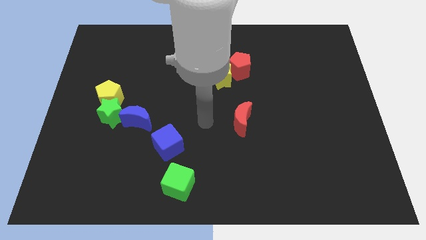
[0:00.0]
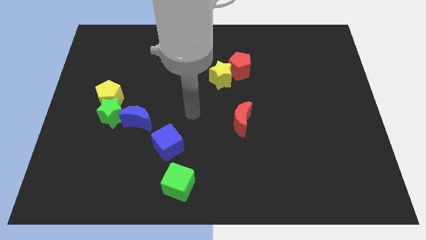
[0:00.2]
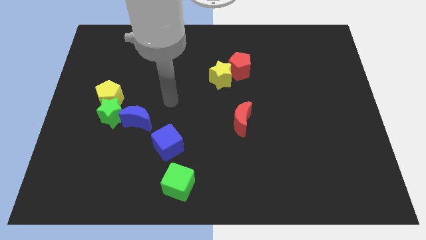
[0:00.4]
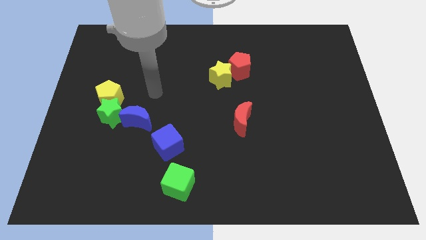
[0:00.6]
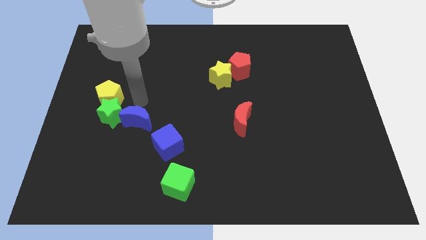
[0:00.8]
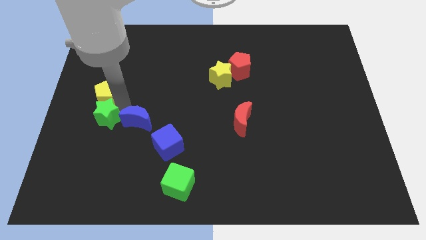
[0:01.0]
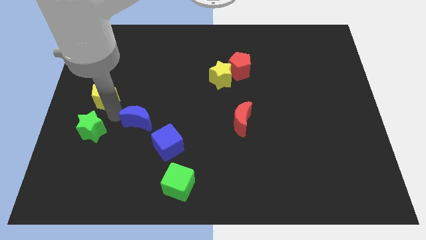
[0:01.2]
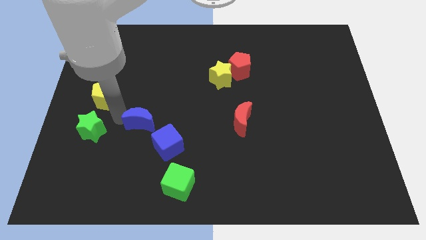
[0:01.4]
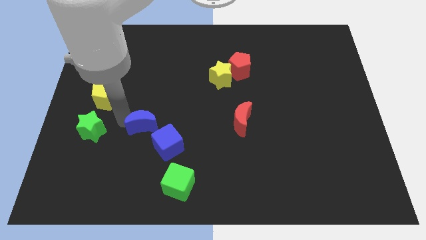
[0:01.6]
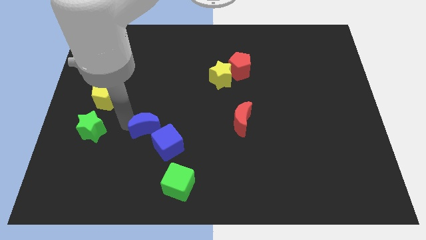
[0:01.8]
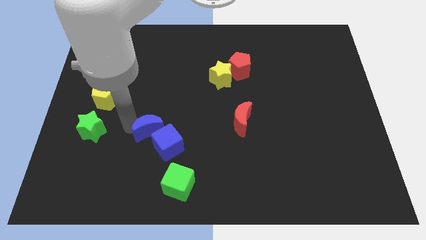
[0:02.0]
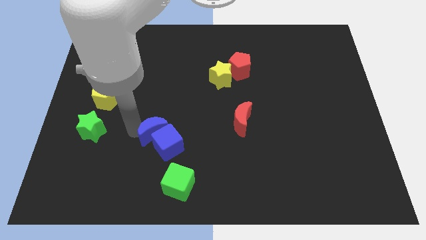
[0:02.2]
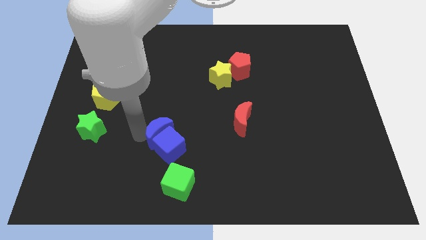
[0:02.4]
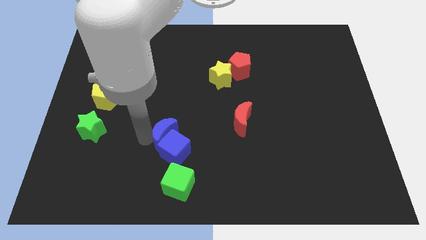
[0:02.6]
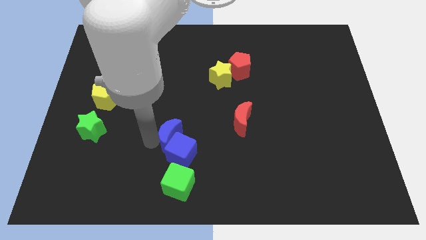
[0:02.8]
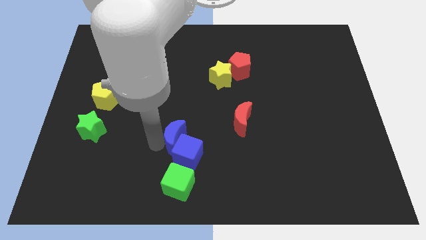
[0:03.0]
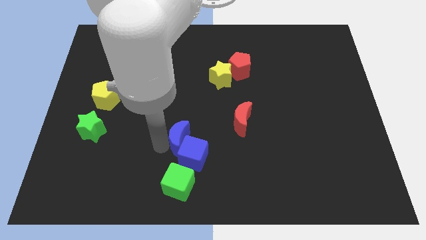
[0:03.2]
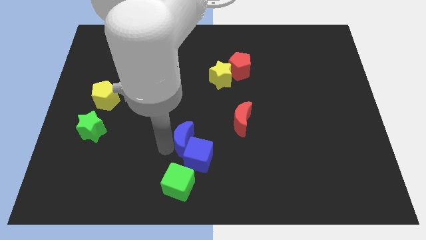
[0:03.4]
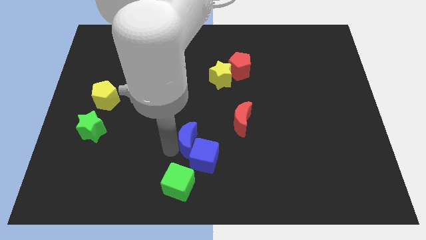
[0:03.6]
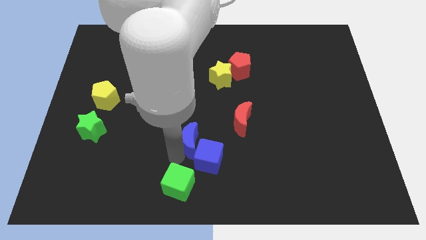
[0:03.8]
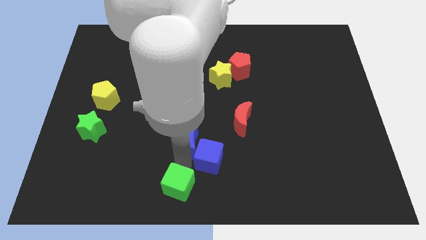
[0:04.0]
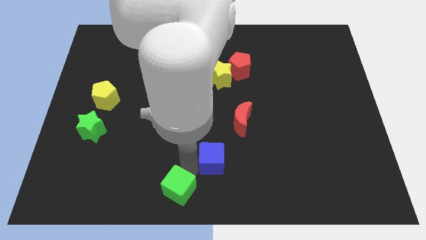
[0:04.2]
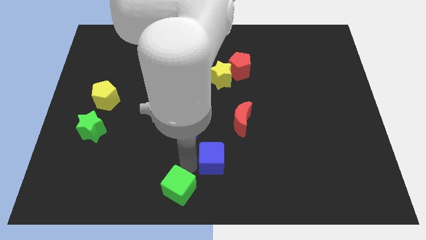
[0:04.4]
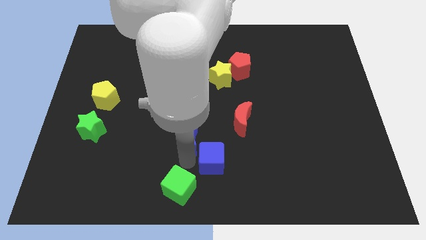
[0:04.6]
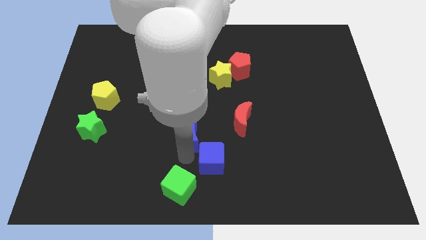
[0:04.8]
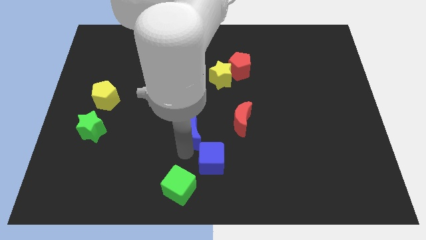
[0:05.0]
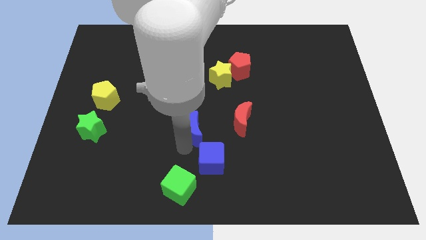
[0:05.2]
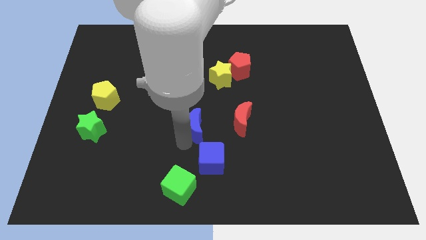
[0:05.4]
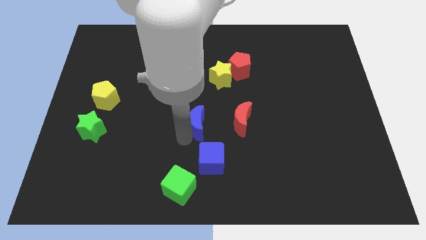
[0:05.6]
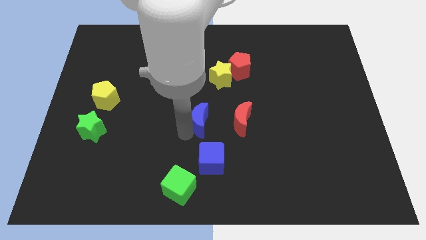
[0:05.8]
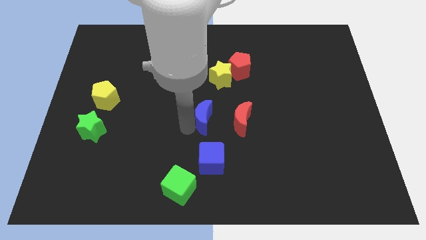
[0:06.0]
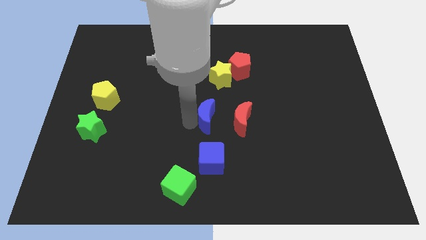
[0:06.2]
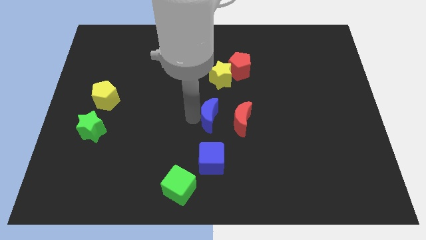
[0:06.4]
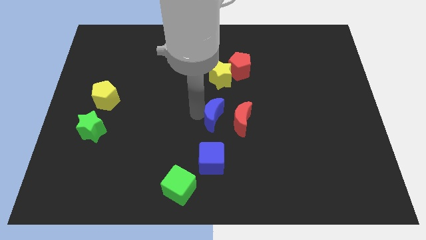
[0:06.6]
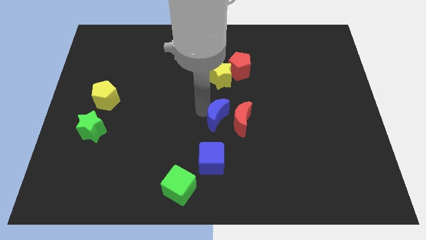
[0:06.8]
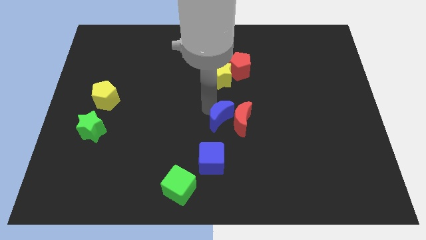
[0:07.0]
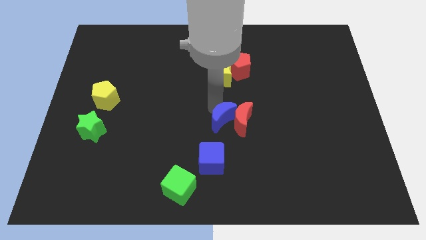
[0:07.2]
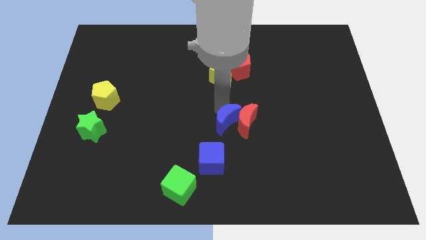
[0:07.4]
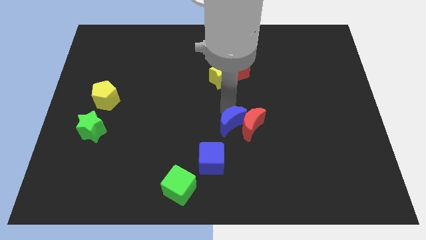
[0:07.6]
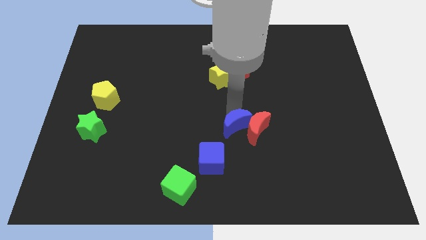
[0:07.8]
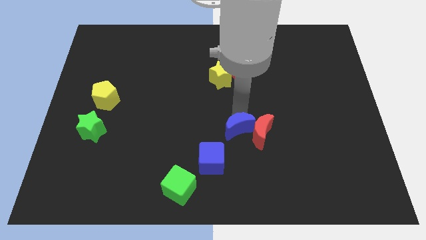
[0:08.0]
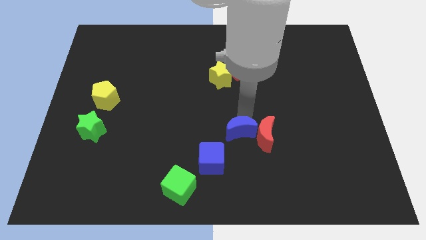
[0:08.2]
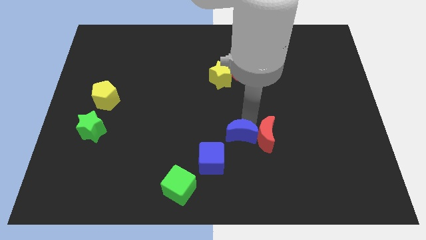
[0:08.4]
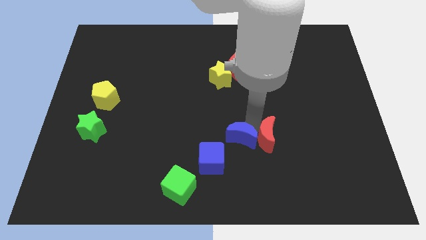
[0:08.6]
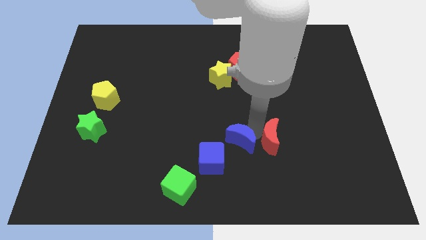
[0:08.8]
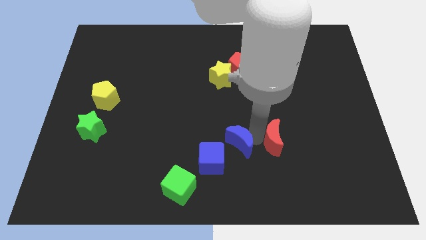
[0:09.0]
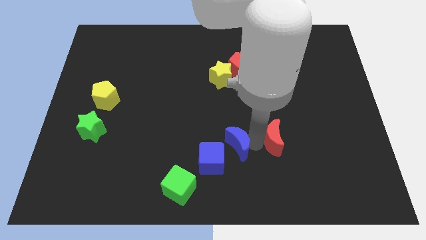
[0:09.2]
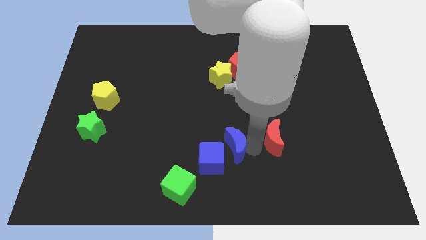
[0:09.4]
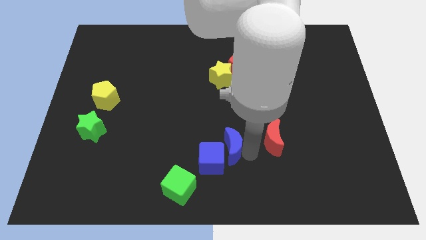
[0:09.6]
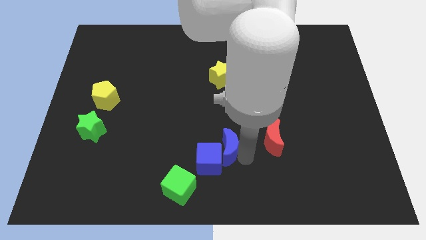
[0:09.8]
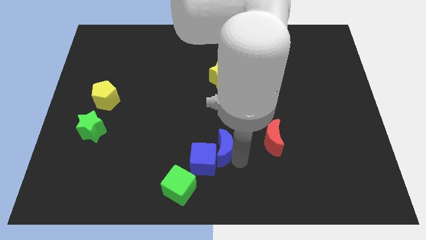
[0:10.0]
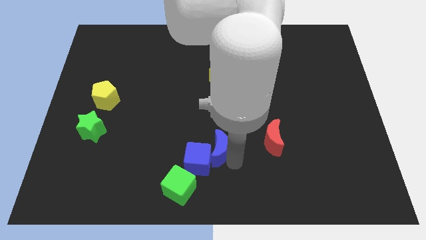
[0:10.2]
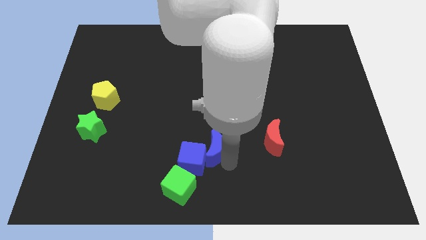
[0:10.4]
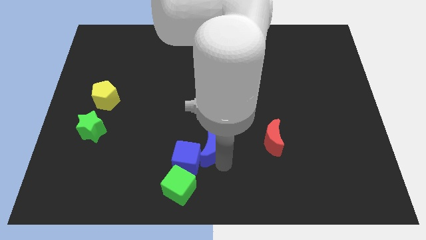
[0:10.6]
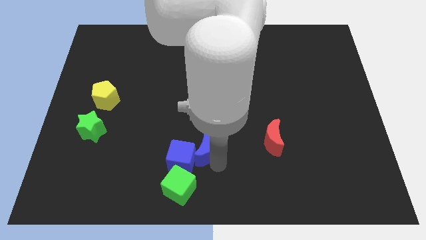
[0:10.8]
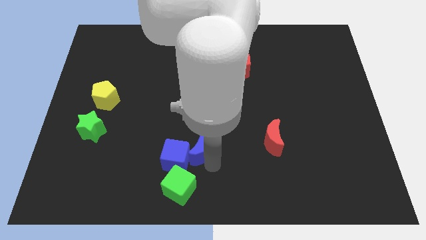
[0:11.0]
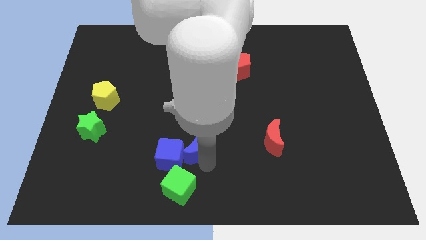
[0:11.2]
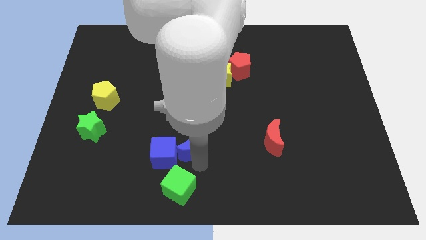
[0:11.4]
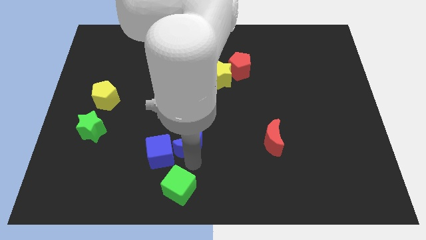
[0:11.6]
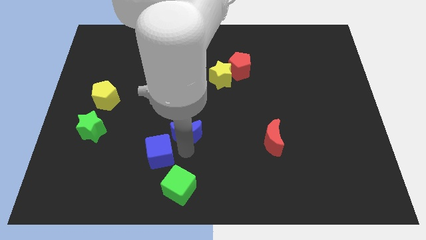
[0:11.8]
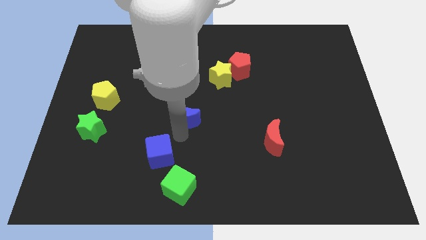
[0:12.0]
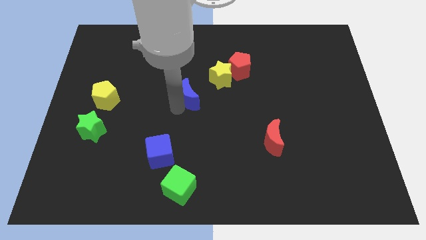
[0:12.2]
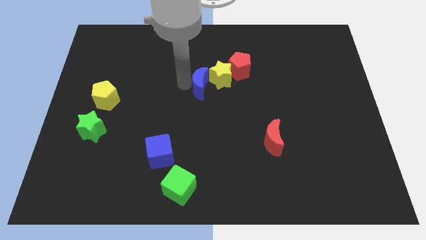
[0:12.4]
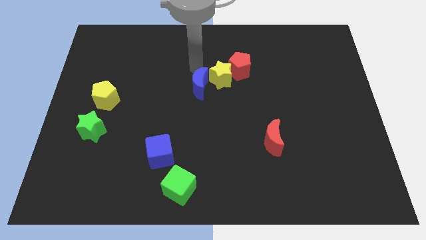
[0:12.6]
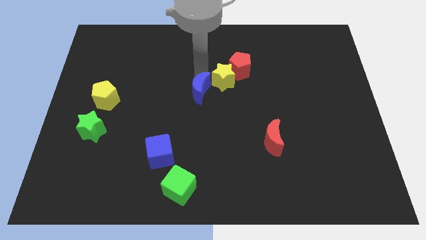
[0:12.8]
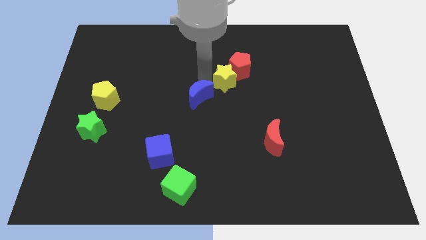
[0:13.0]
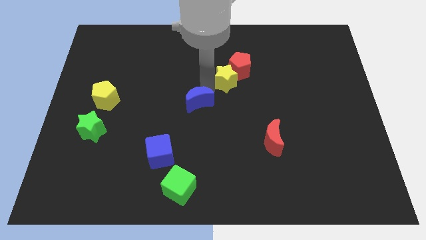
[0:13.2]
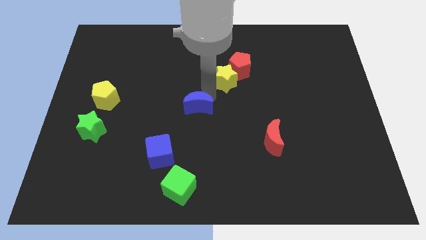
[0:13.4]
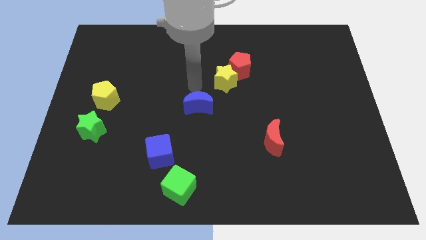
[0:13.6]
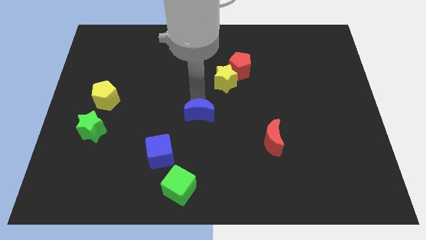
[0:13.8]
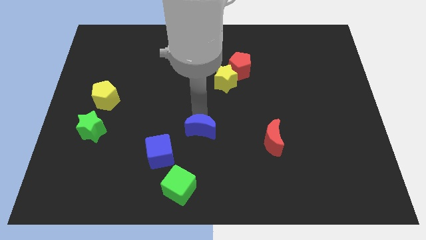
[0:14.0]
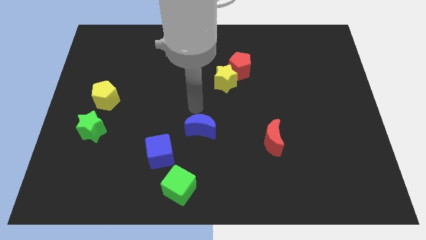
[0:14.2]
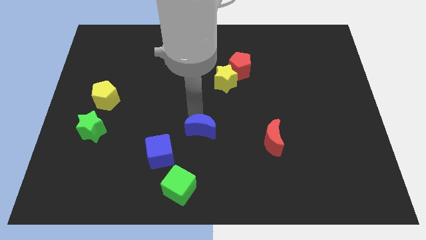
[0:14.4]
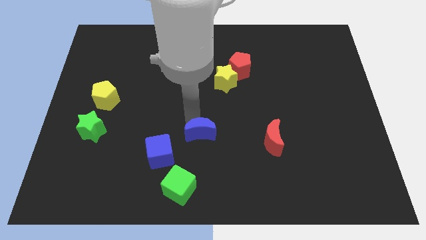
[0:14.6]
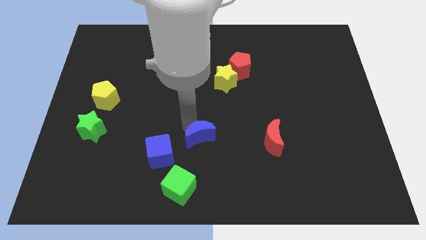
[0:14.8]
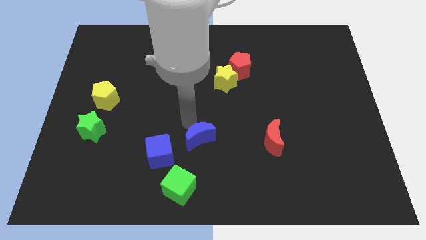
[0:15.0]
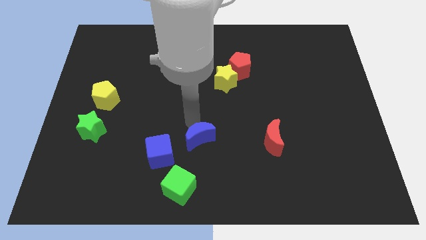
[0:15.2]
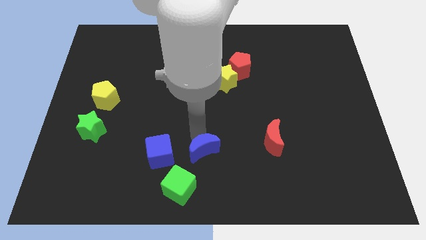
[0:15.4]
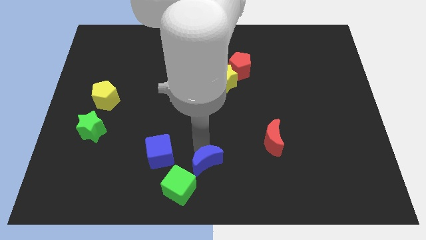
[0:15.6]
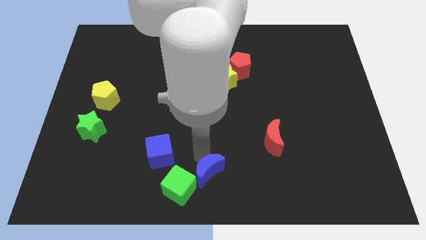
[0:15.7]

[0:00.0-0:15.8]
slide the blue moon to the right side of the green cube
